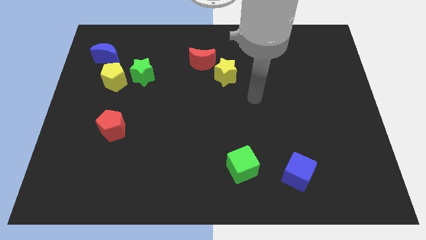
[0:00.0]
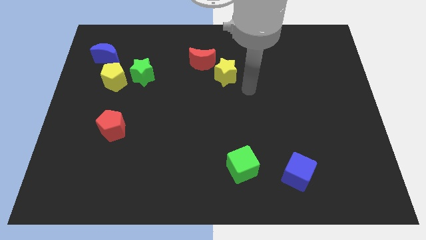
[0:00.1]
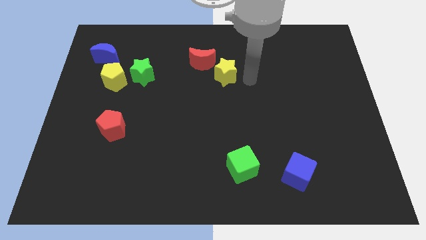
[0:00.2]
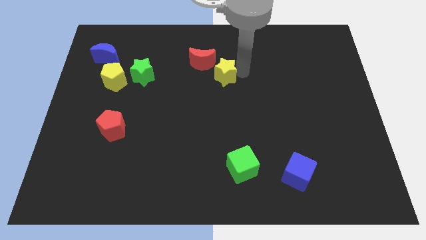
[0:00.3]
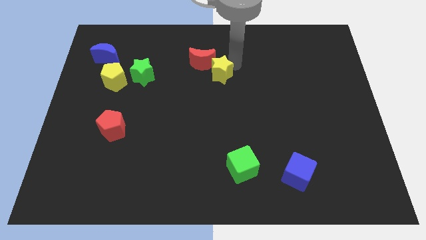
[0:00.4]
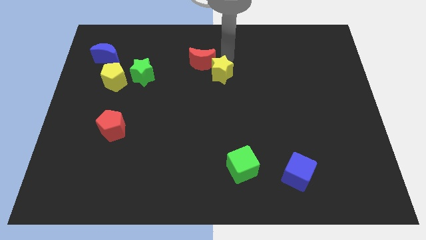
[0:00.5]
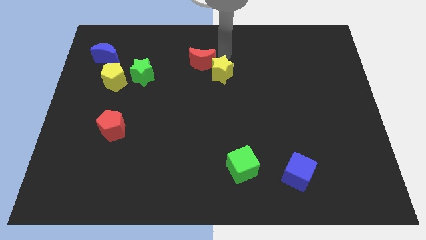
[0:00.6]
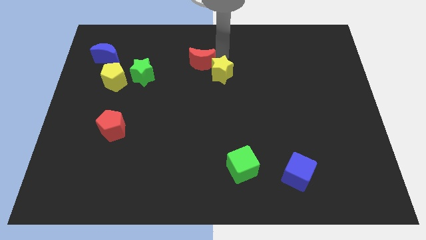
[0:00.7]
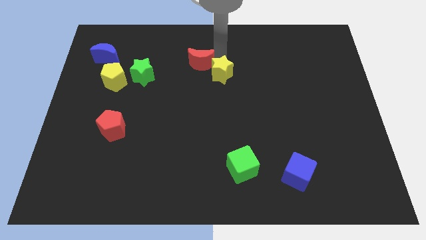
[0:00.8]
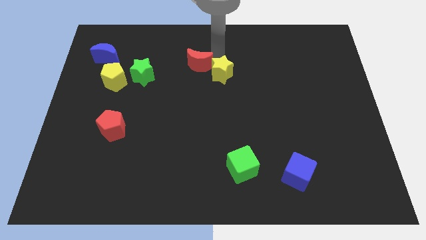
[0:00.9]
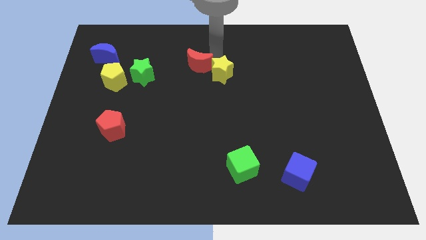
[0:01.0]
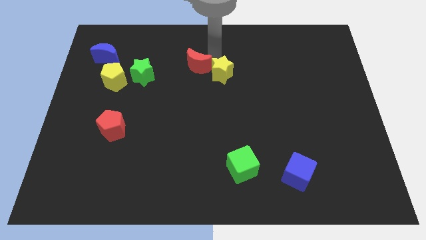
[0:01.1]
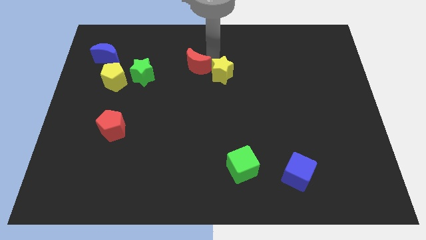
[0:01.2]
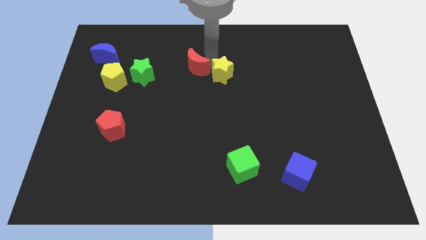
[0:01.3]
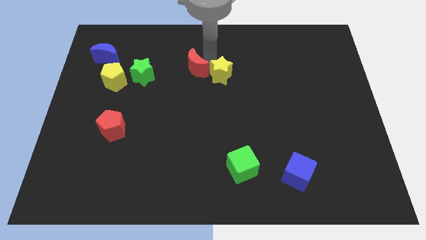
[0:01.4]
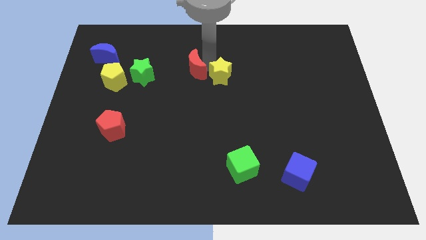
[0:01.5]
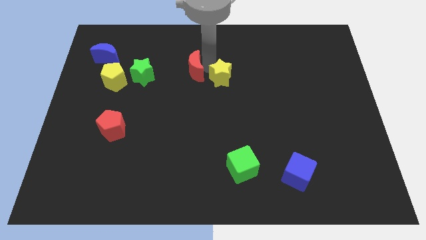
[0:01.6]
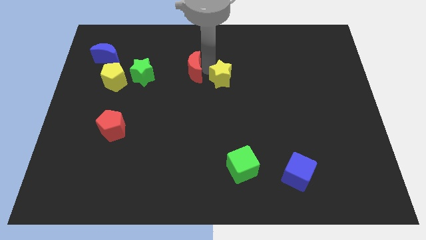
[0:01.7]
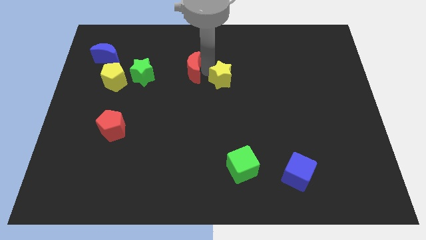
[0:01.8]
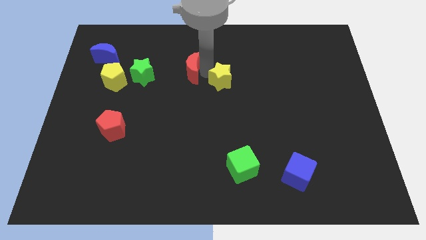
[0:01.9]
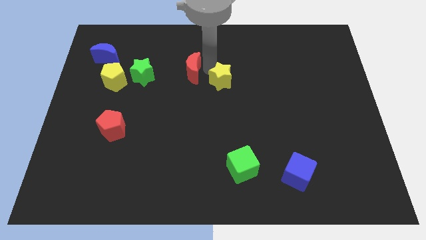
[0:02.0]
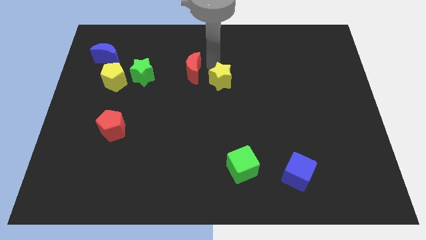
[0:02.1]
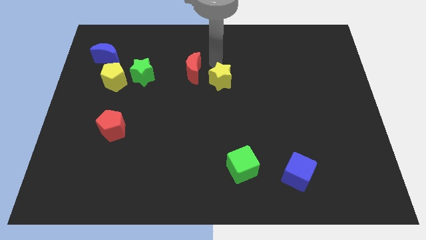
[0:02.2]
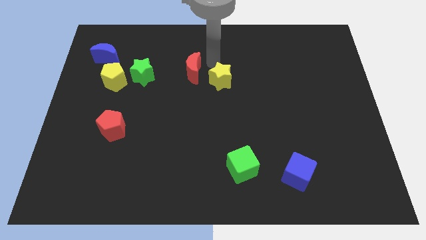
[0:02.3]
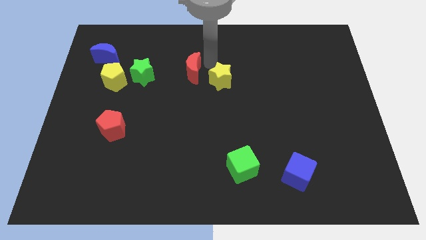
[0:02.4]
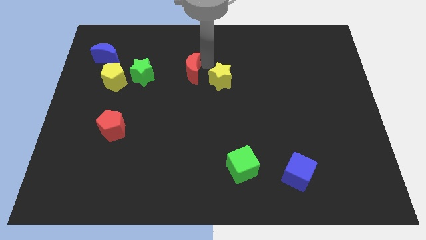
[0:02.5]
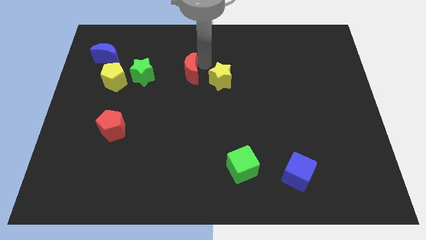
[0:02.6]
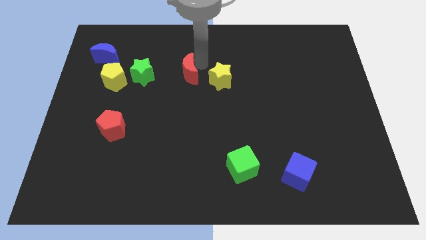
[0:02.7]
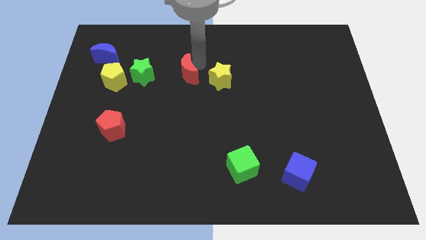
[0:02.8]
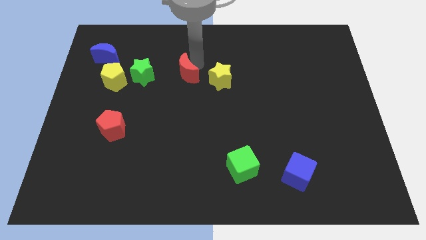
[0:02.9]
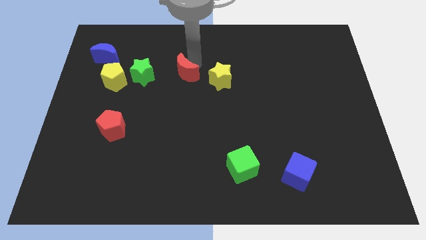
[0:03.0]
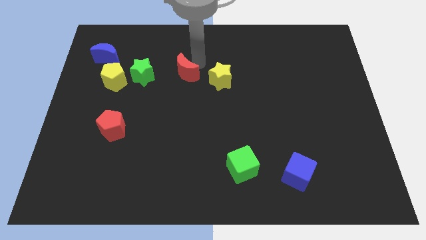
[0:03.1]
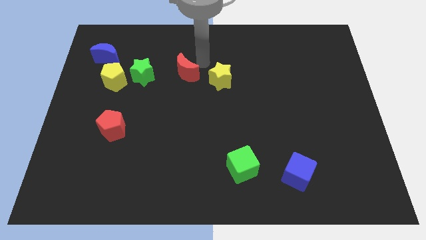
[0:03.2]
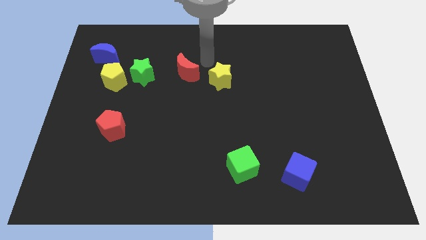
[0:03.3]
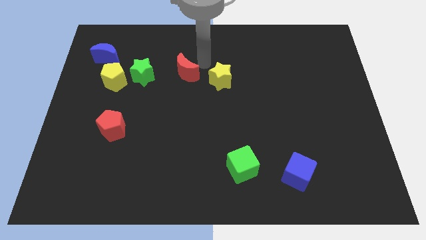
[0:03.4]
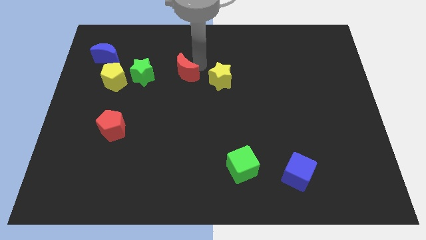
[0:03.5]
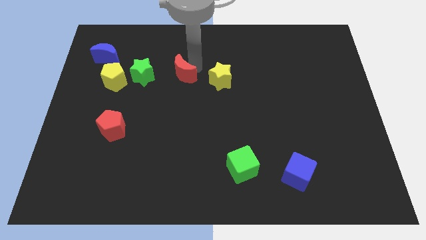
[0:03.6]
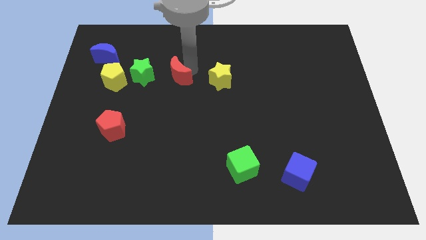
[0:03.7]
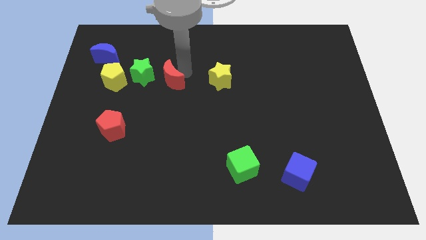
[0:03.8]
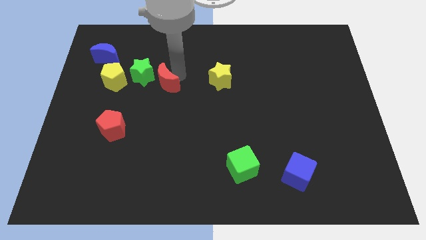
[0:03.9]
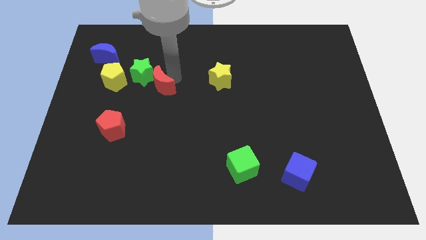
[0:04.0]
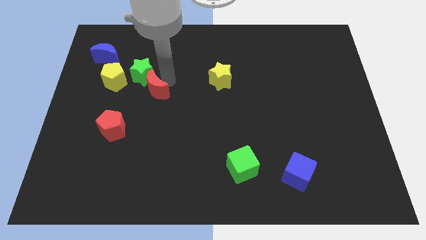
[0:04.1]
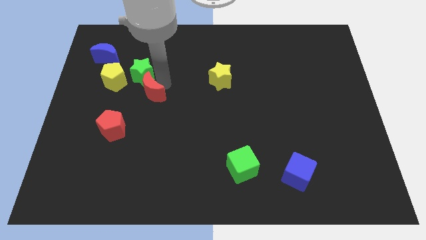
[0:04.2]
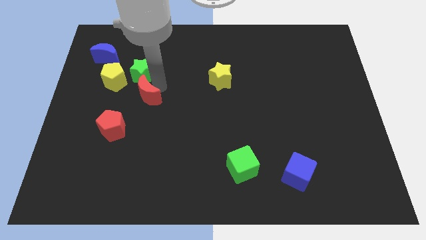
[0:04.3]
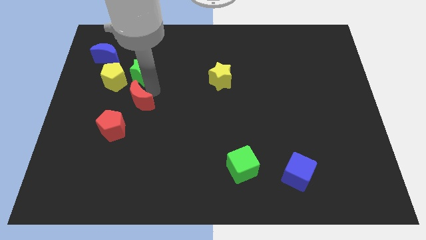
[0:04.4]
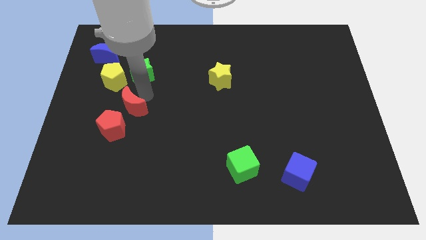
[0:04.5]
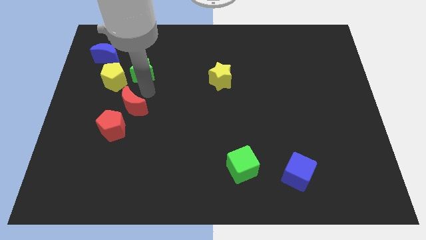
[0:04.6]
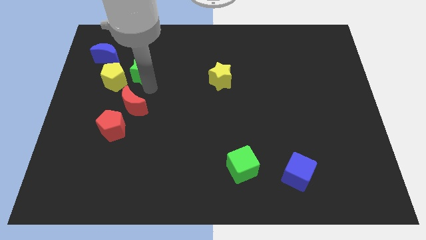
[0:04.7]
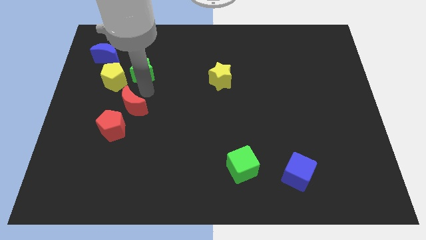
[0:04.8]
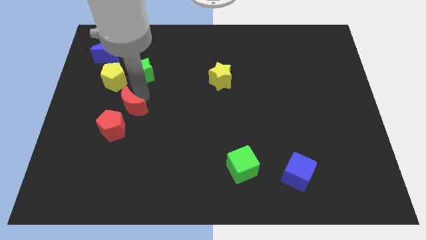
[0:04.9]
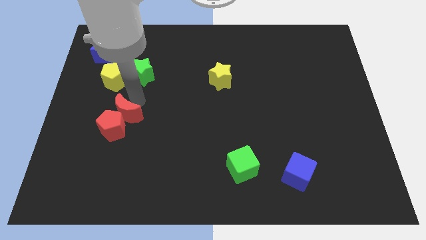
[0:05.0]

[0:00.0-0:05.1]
slide the red moon towards the red pentagon

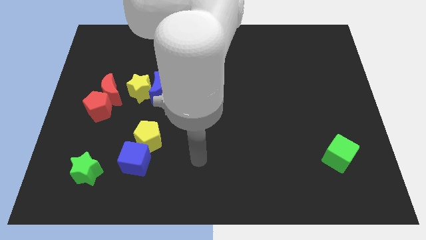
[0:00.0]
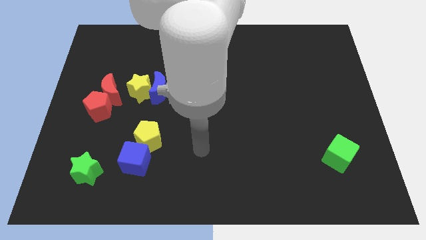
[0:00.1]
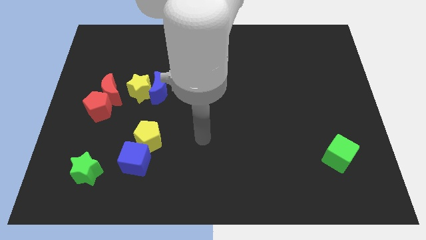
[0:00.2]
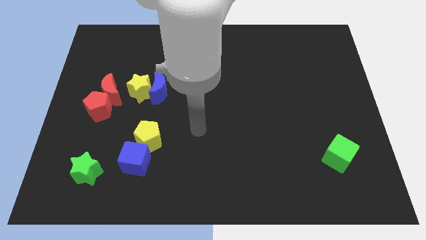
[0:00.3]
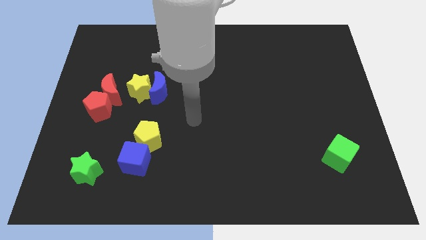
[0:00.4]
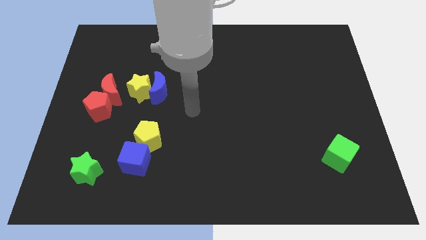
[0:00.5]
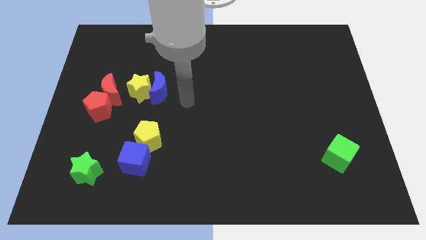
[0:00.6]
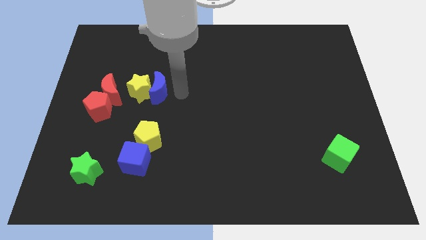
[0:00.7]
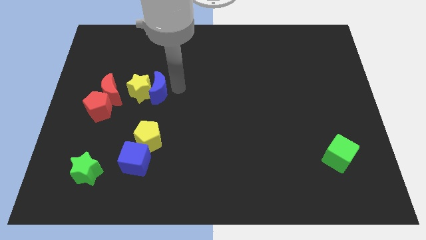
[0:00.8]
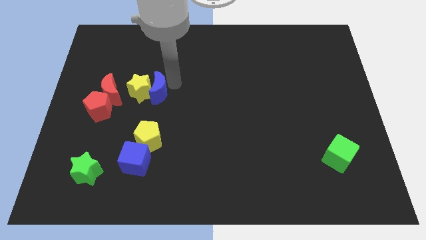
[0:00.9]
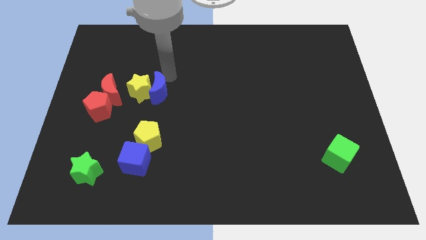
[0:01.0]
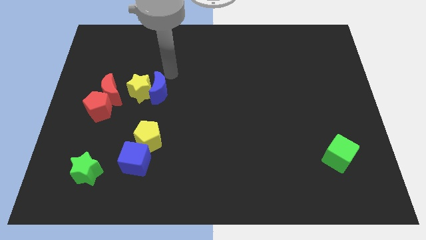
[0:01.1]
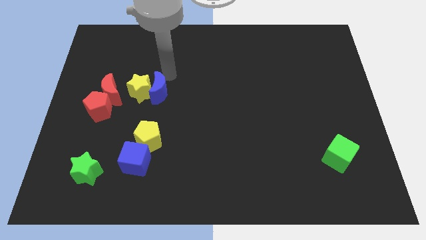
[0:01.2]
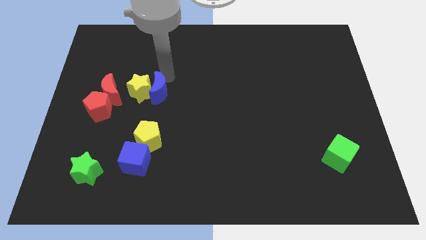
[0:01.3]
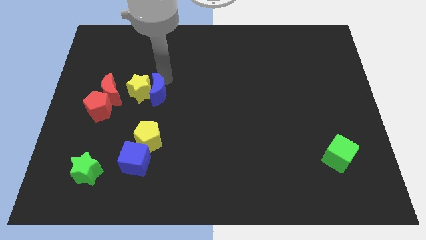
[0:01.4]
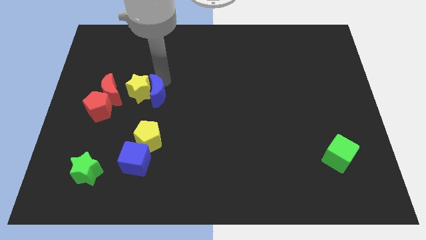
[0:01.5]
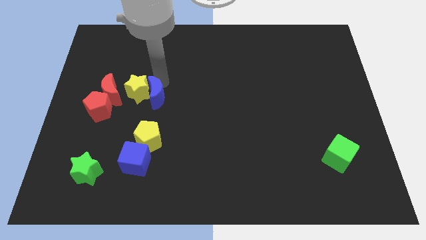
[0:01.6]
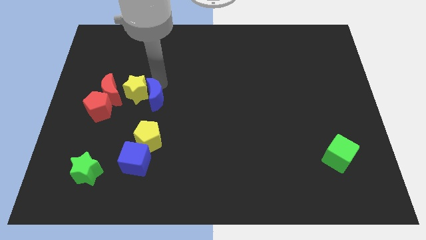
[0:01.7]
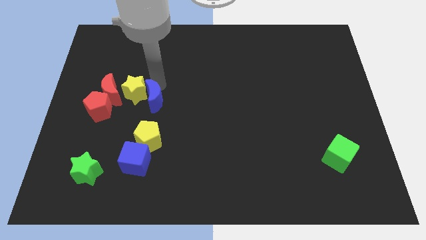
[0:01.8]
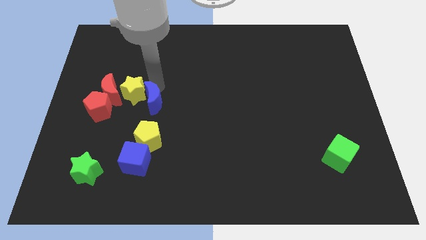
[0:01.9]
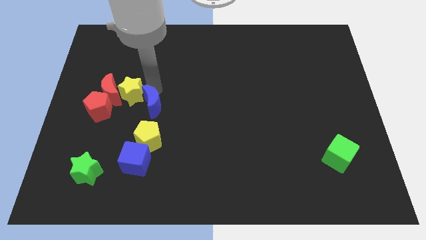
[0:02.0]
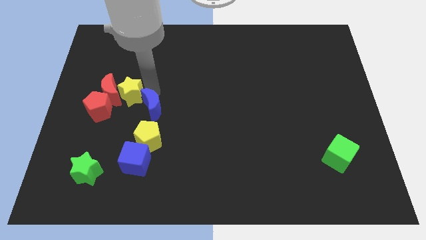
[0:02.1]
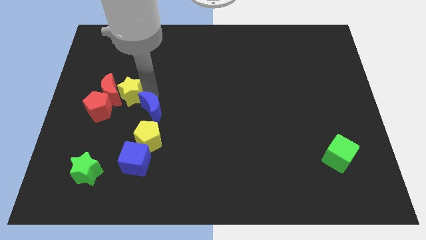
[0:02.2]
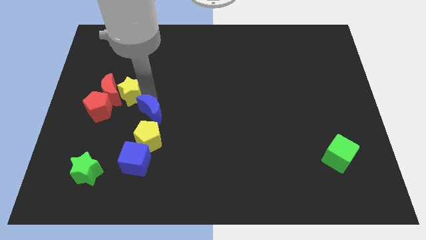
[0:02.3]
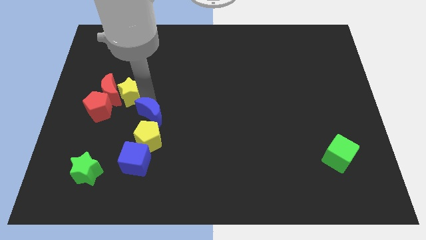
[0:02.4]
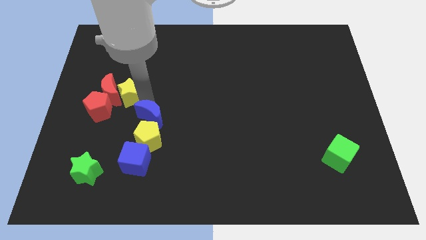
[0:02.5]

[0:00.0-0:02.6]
slide the blue moon next to the yellow pentagon
